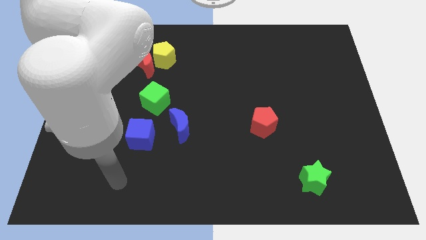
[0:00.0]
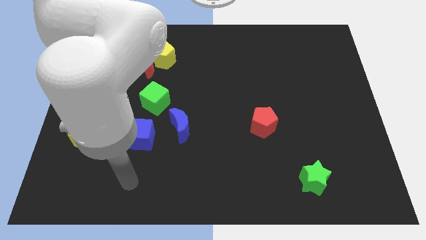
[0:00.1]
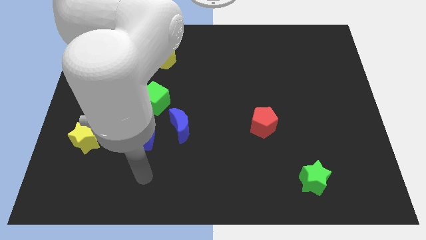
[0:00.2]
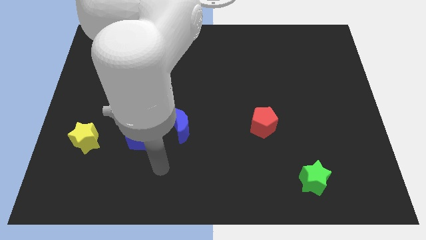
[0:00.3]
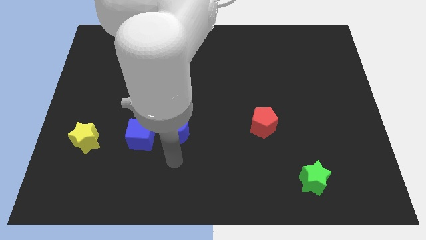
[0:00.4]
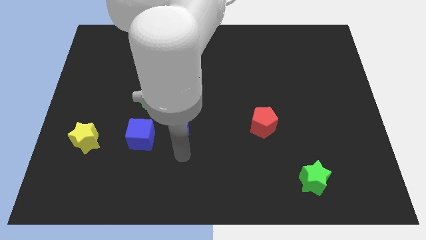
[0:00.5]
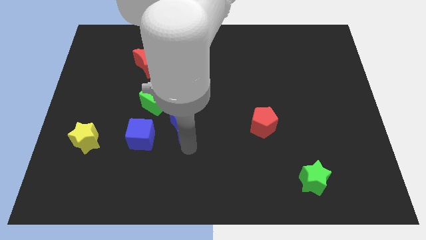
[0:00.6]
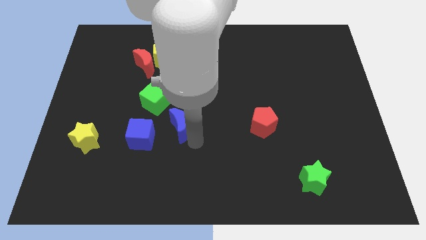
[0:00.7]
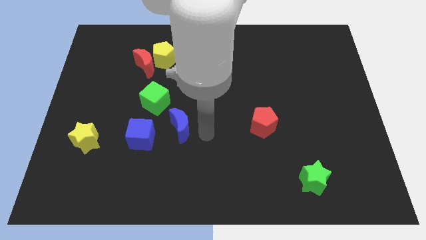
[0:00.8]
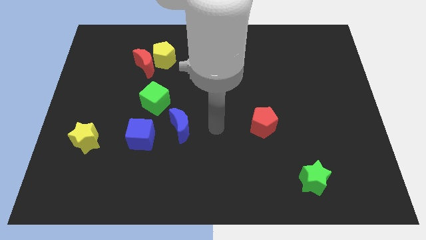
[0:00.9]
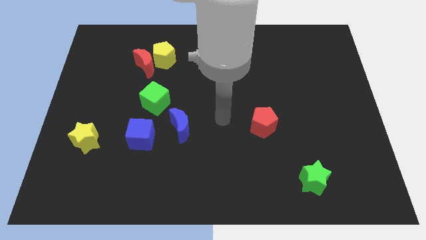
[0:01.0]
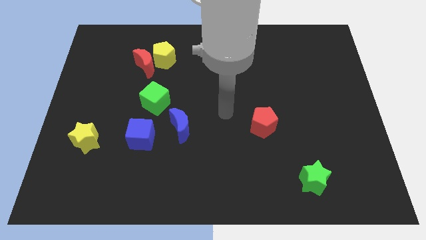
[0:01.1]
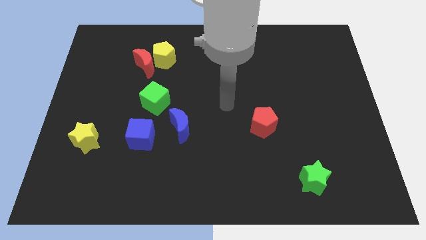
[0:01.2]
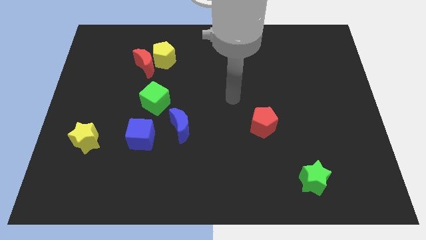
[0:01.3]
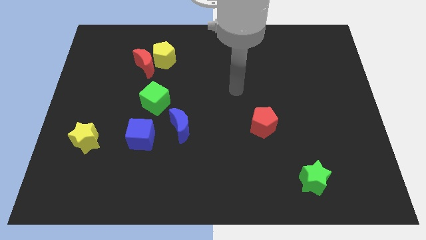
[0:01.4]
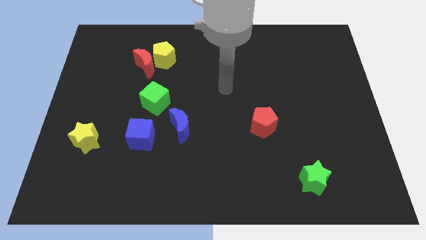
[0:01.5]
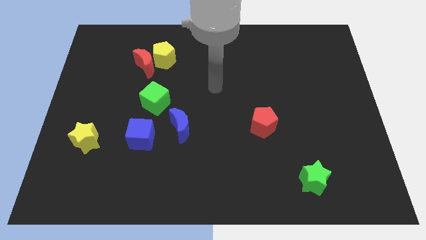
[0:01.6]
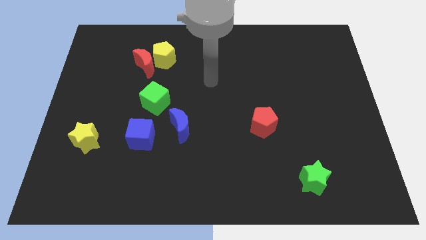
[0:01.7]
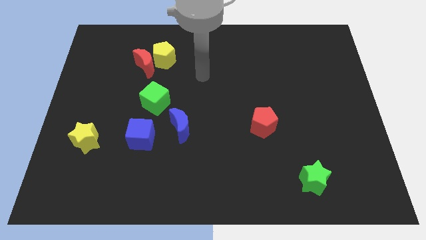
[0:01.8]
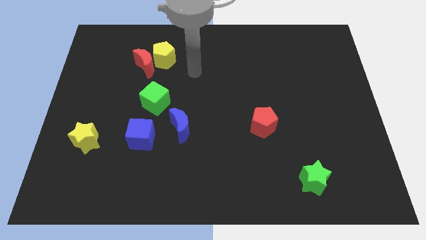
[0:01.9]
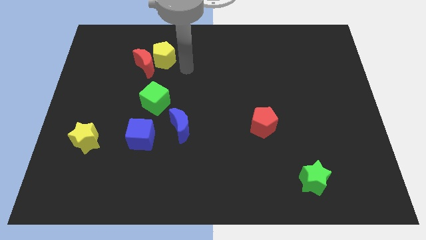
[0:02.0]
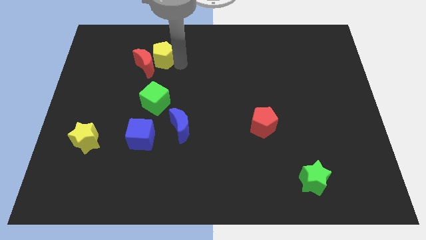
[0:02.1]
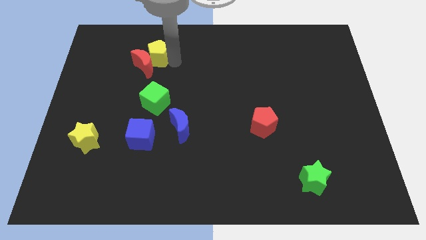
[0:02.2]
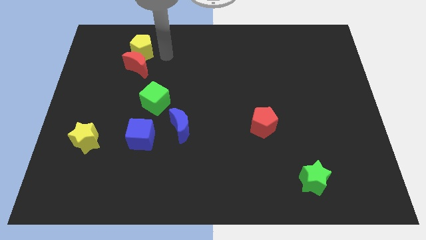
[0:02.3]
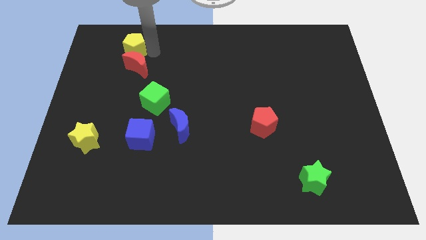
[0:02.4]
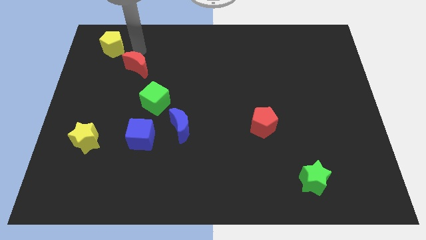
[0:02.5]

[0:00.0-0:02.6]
pull the red moon apart from the yellow pentagon

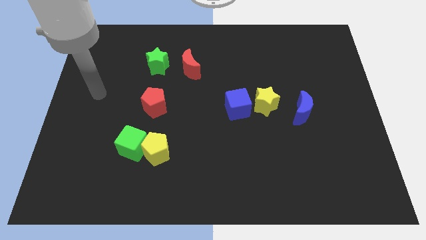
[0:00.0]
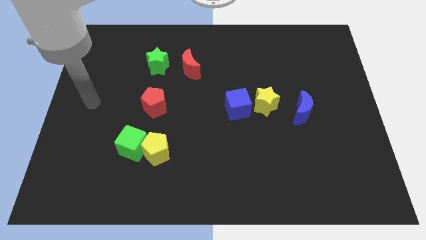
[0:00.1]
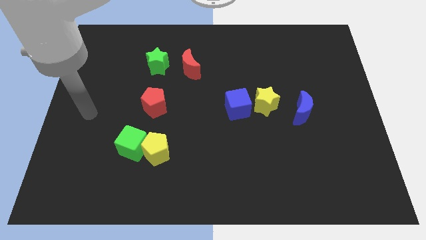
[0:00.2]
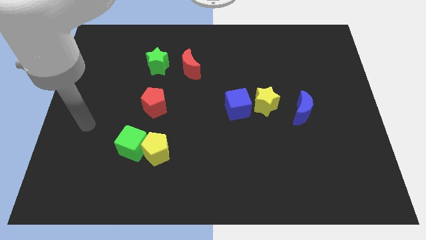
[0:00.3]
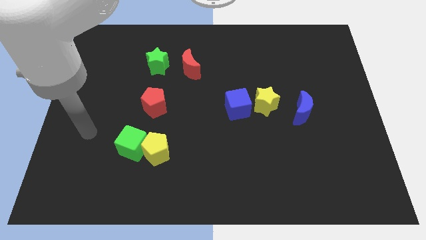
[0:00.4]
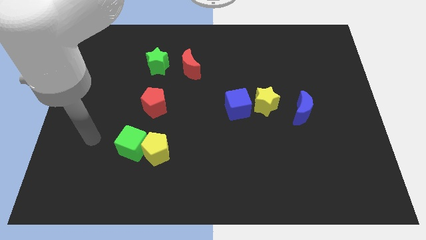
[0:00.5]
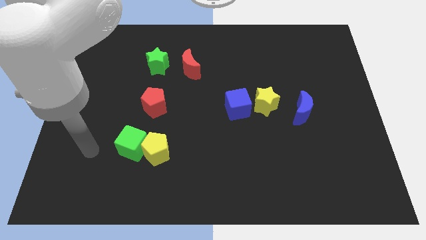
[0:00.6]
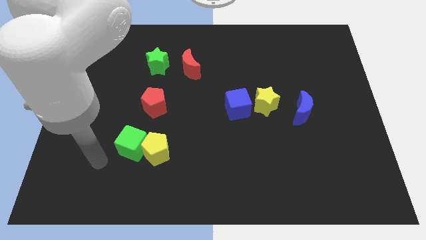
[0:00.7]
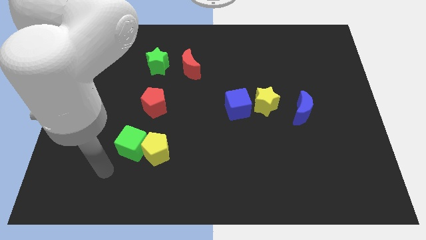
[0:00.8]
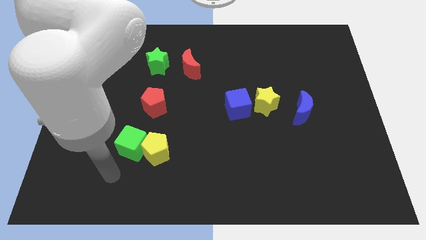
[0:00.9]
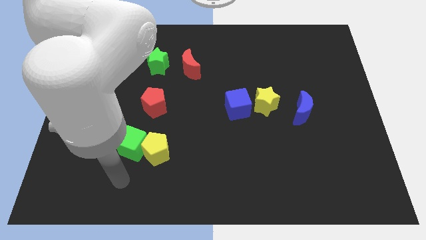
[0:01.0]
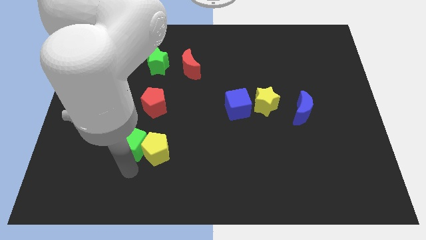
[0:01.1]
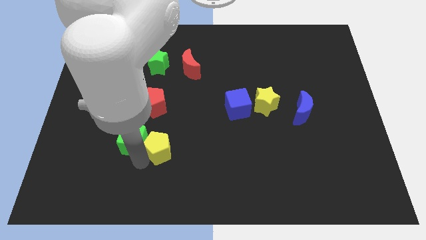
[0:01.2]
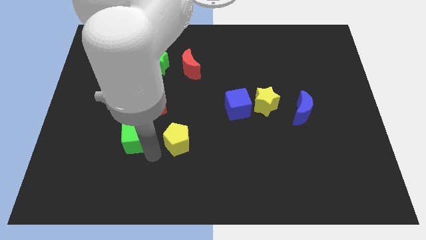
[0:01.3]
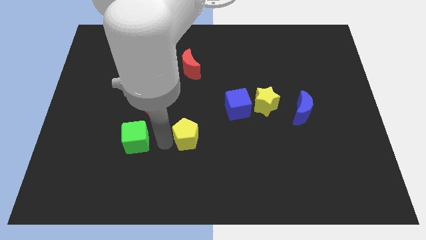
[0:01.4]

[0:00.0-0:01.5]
separate the green cube from the yellow pentagon

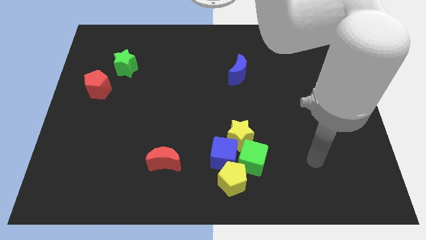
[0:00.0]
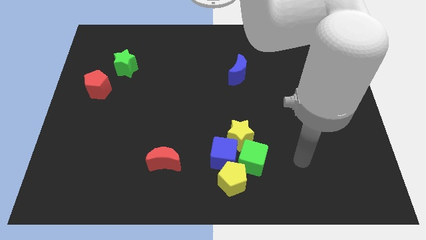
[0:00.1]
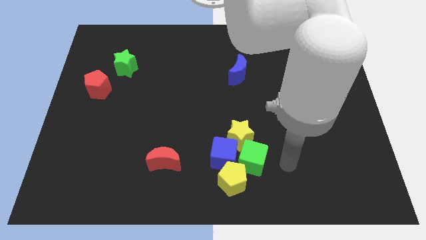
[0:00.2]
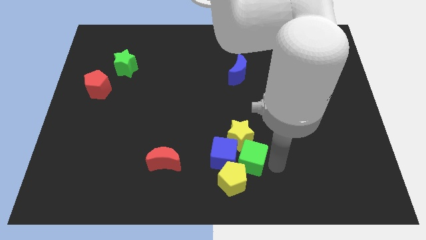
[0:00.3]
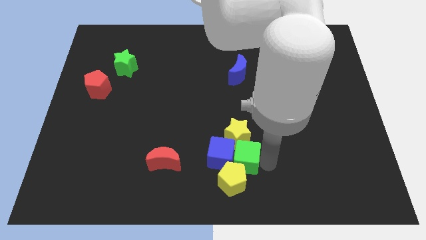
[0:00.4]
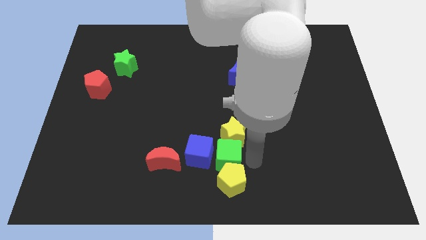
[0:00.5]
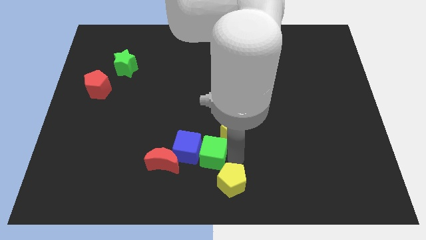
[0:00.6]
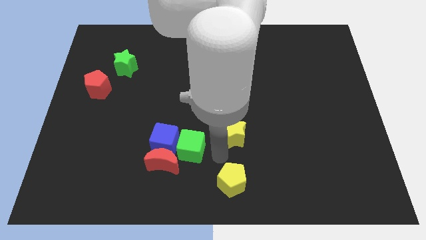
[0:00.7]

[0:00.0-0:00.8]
separate the blue cube from the green cube, yellow pentagon, and yellow star

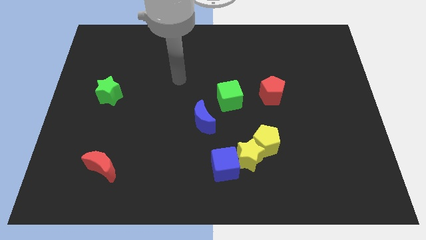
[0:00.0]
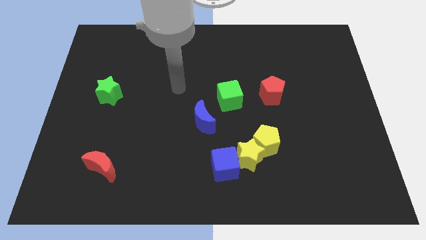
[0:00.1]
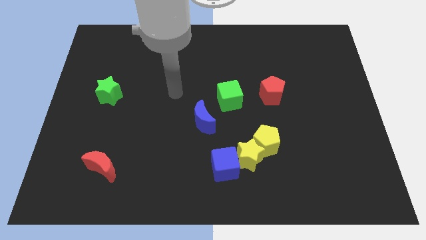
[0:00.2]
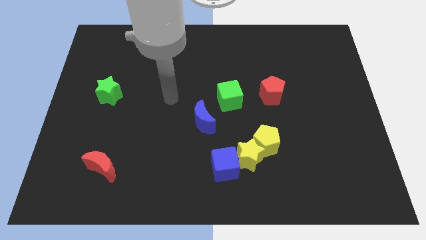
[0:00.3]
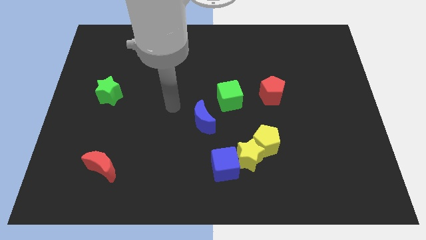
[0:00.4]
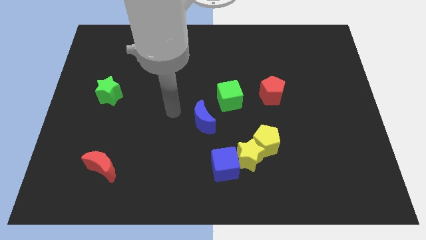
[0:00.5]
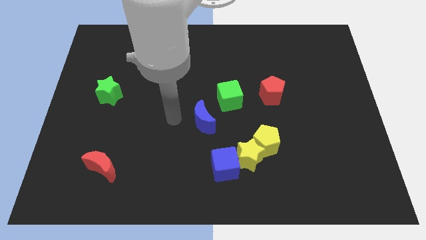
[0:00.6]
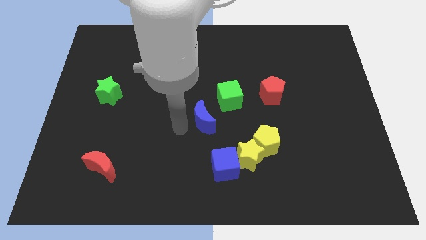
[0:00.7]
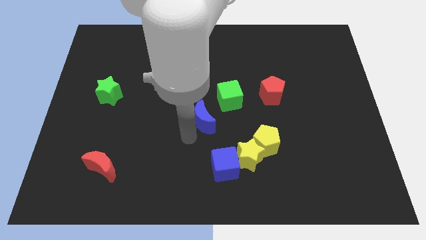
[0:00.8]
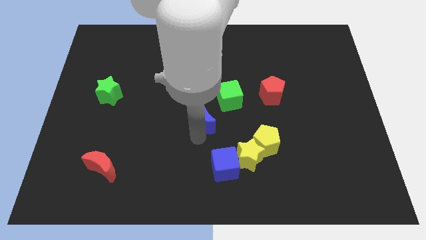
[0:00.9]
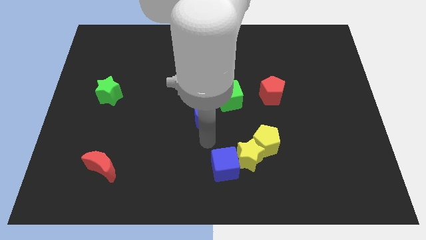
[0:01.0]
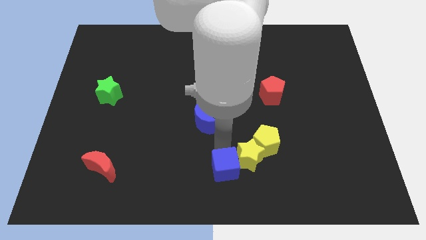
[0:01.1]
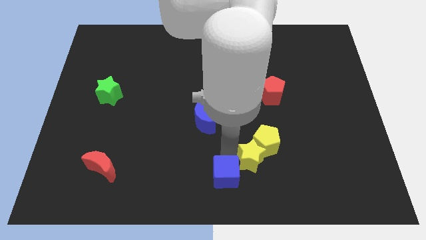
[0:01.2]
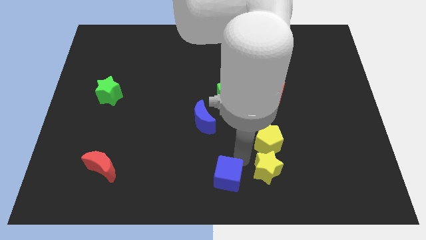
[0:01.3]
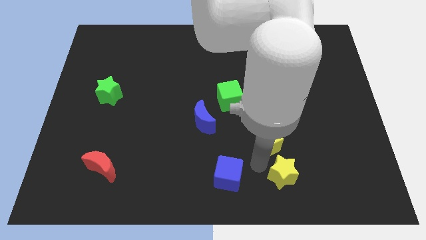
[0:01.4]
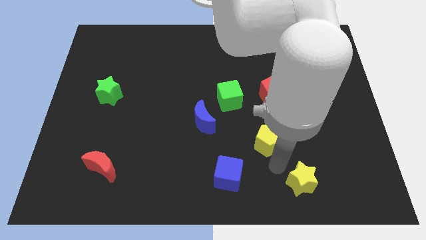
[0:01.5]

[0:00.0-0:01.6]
pull the yellow pentagon apart from the yellow star

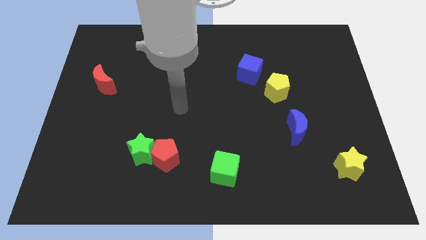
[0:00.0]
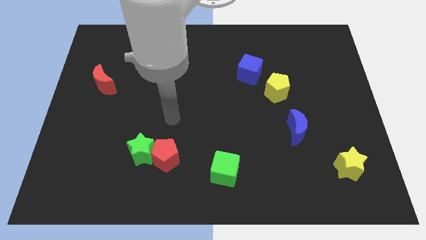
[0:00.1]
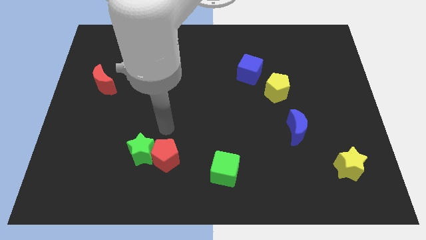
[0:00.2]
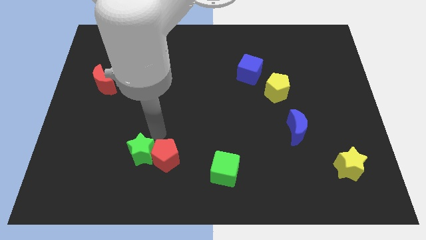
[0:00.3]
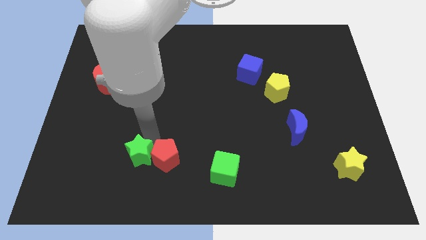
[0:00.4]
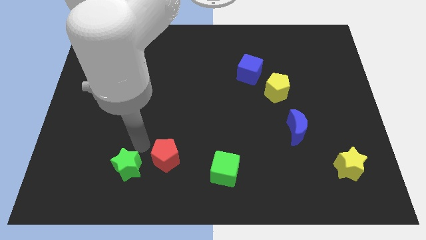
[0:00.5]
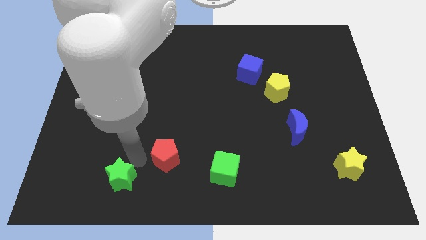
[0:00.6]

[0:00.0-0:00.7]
pull the red pentagon apart from the green star

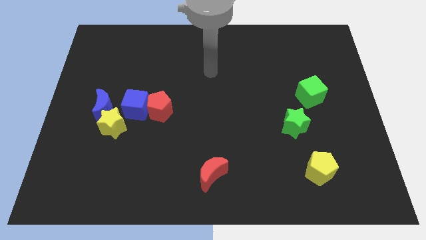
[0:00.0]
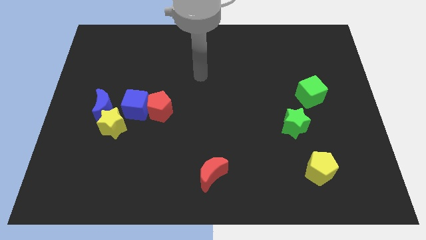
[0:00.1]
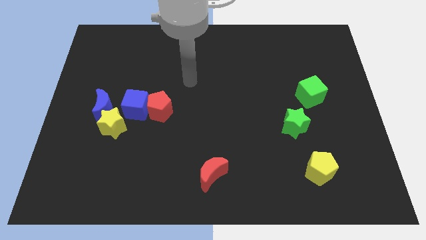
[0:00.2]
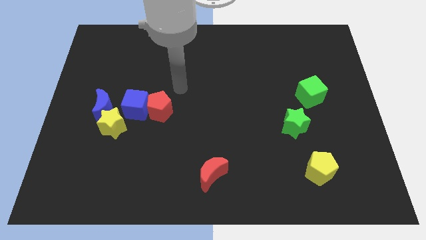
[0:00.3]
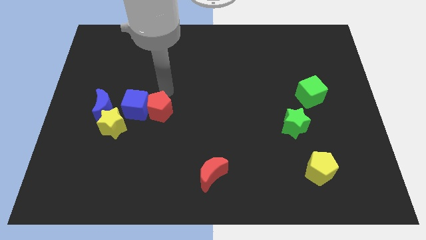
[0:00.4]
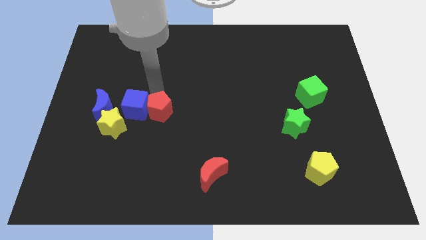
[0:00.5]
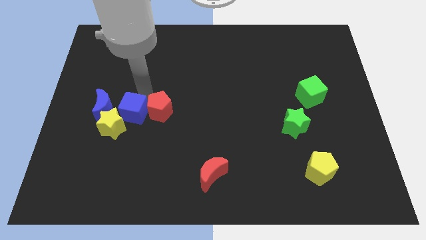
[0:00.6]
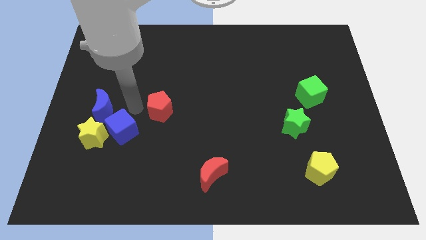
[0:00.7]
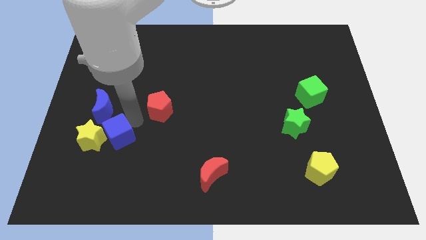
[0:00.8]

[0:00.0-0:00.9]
separate the red pentagon from the blue cube

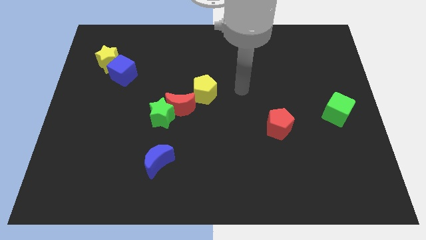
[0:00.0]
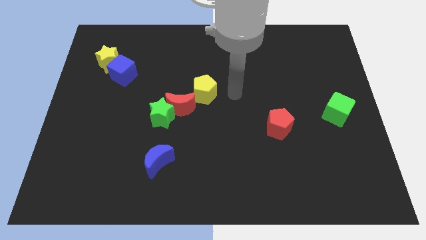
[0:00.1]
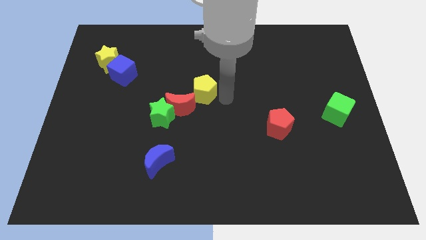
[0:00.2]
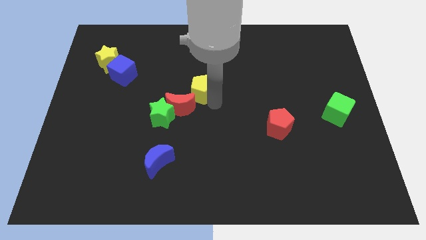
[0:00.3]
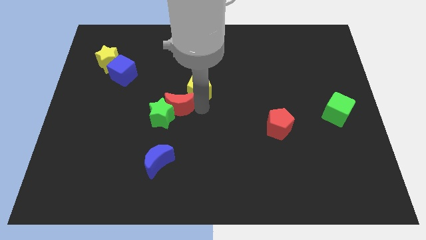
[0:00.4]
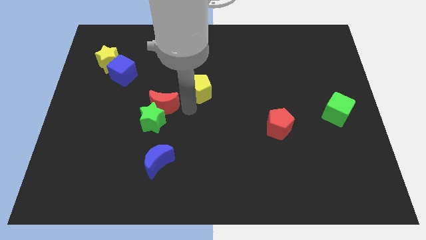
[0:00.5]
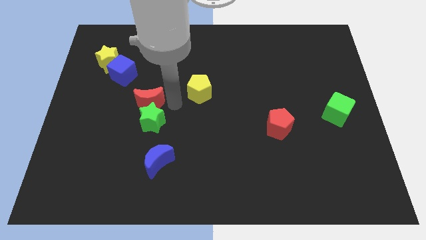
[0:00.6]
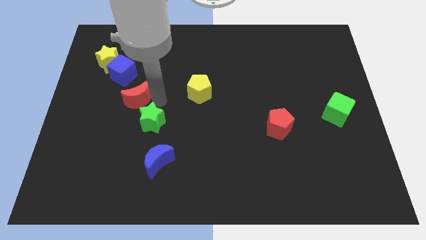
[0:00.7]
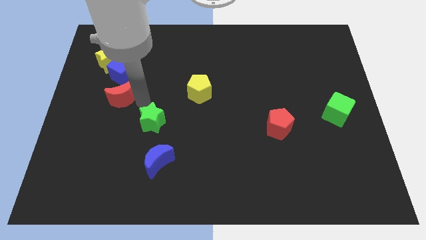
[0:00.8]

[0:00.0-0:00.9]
move the green star away from the red moon

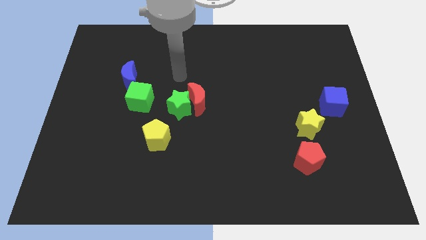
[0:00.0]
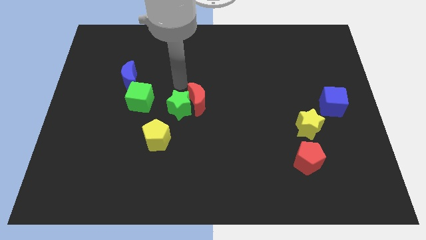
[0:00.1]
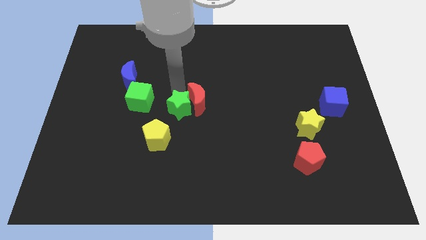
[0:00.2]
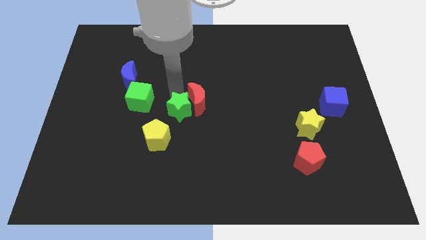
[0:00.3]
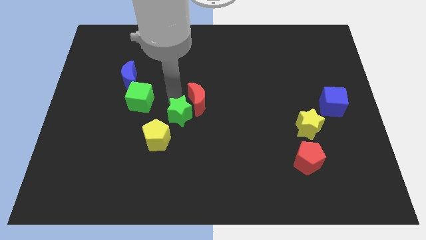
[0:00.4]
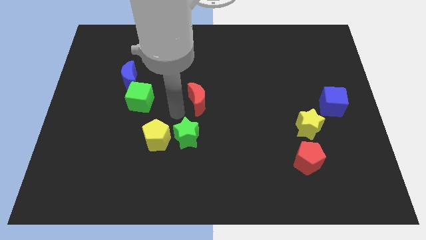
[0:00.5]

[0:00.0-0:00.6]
separate the red moon from the green star
